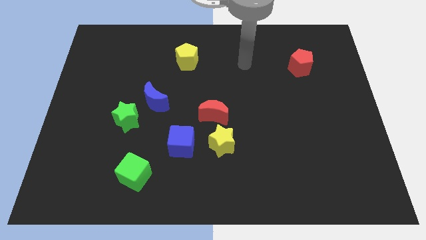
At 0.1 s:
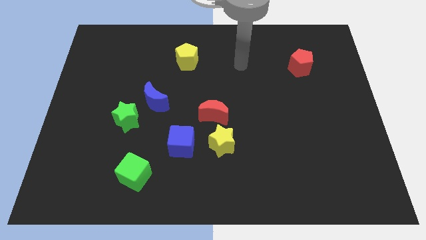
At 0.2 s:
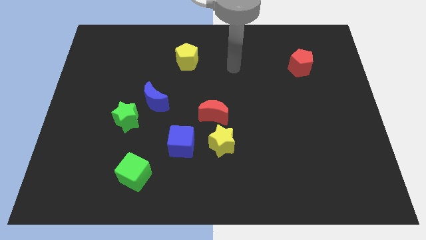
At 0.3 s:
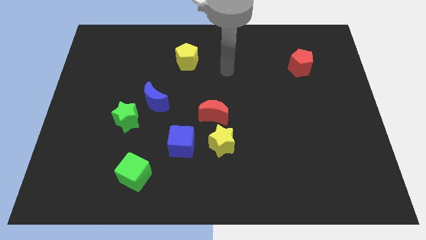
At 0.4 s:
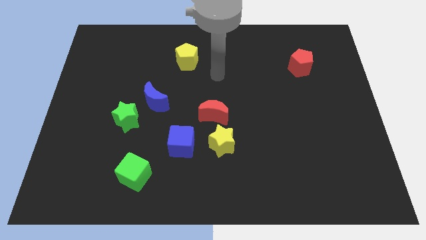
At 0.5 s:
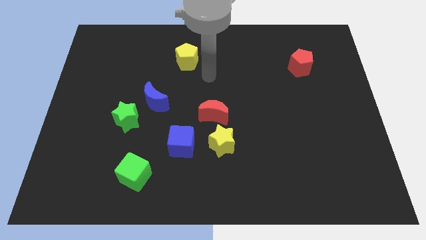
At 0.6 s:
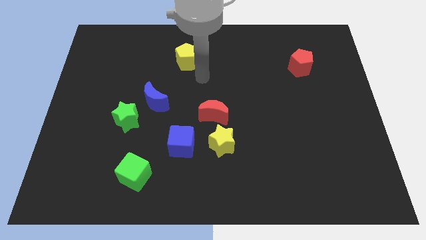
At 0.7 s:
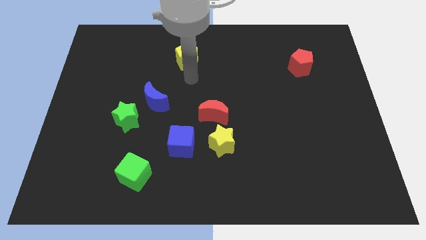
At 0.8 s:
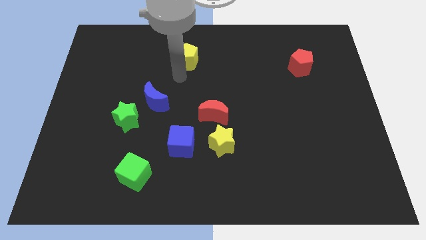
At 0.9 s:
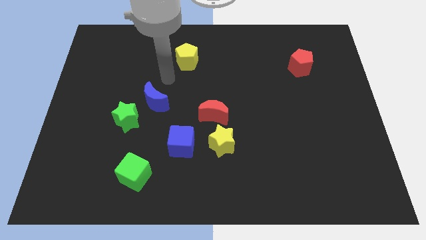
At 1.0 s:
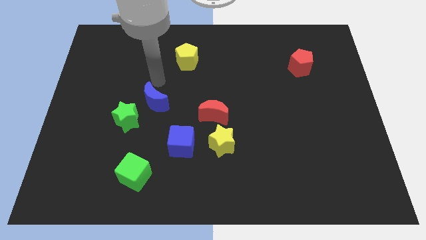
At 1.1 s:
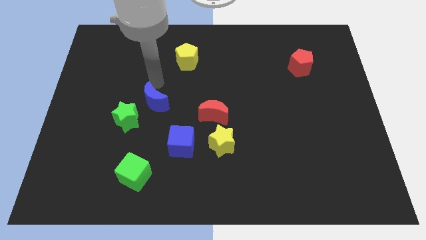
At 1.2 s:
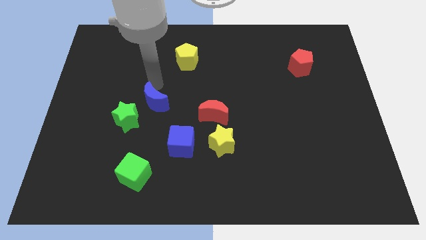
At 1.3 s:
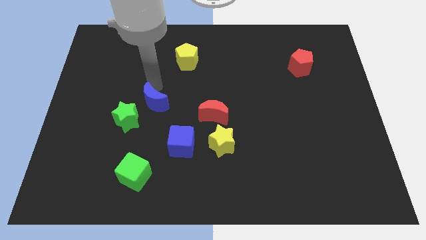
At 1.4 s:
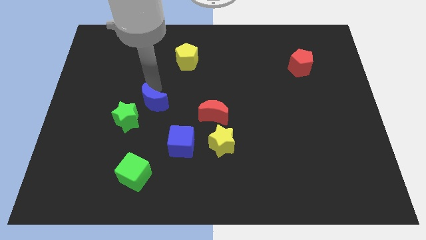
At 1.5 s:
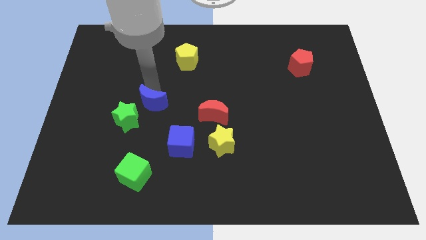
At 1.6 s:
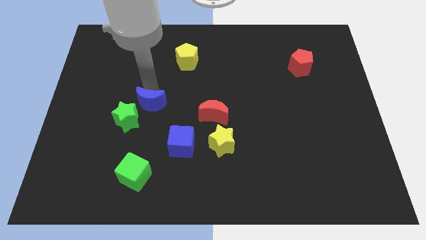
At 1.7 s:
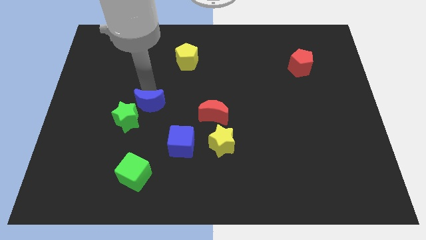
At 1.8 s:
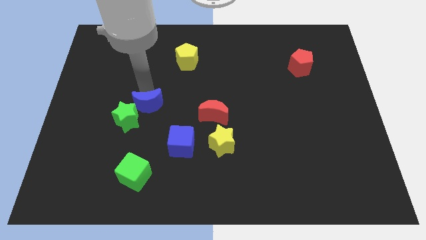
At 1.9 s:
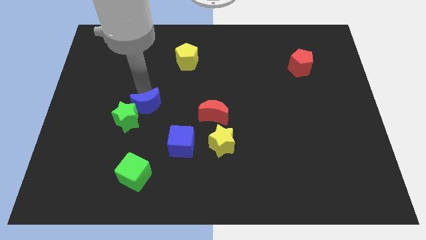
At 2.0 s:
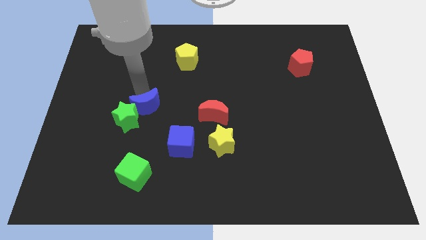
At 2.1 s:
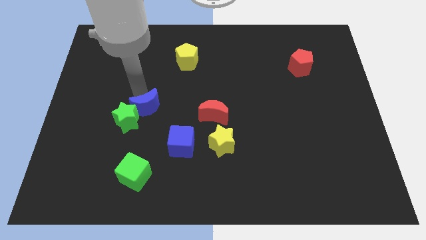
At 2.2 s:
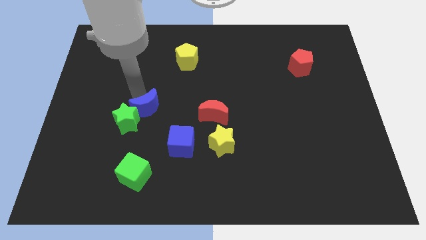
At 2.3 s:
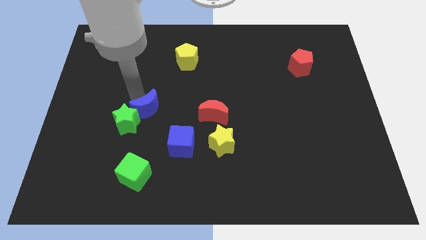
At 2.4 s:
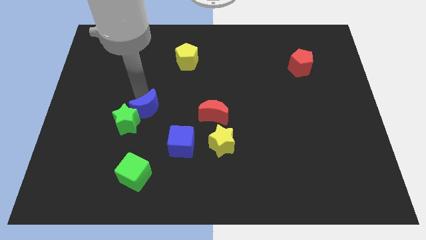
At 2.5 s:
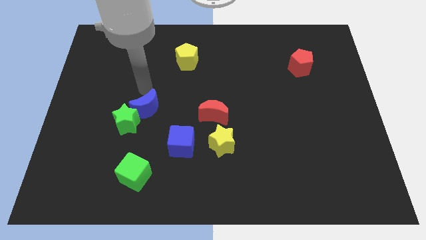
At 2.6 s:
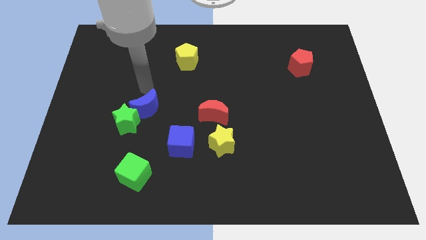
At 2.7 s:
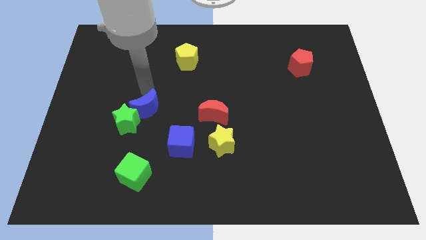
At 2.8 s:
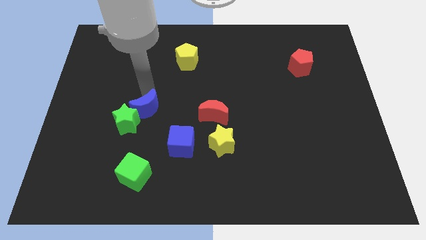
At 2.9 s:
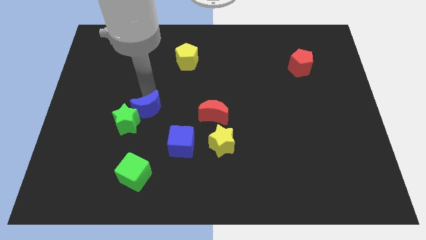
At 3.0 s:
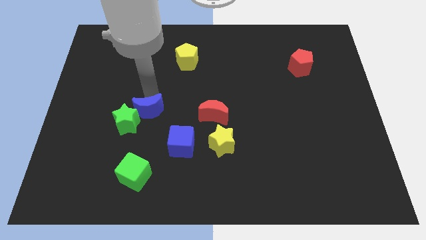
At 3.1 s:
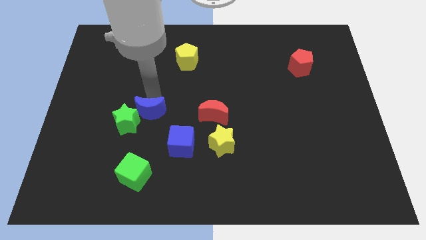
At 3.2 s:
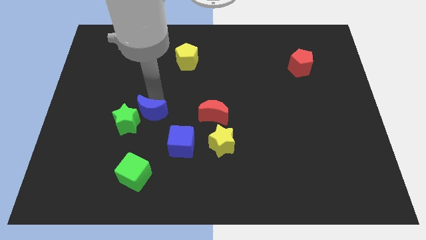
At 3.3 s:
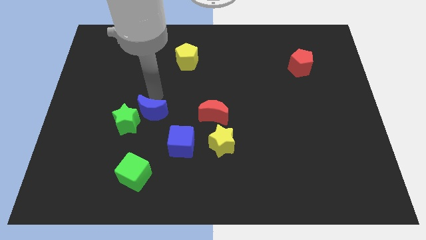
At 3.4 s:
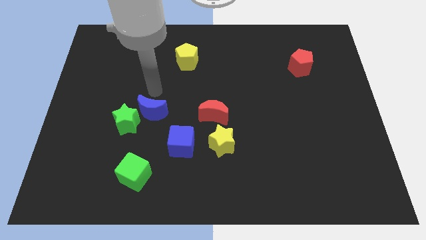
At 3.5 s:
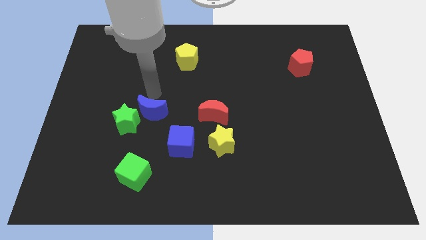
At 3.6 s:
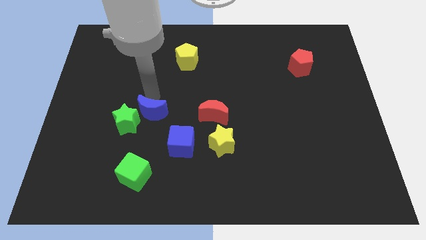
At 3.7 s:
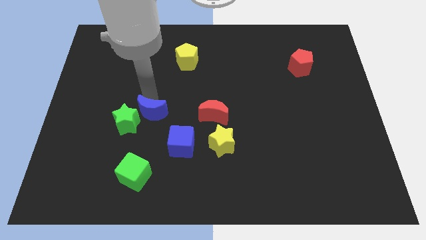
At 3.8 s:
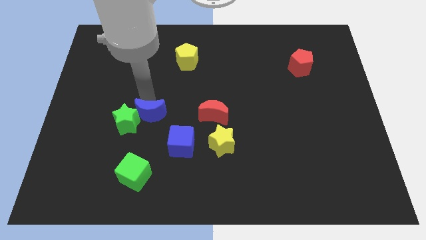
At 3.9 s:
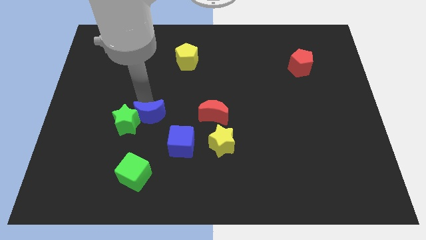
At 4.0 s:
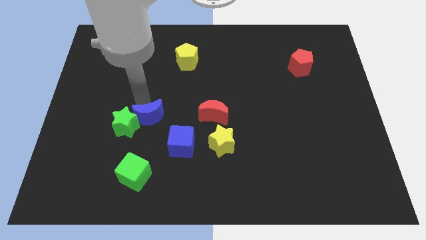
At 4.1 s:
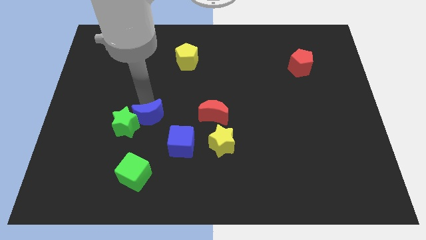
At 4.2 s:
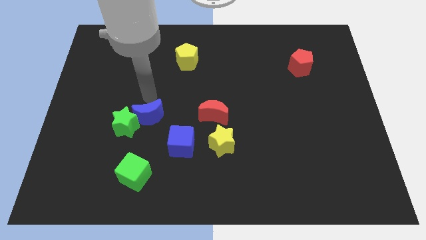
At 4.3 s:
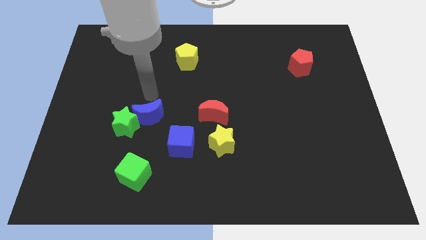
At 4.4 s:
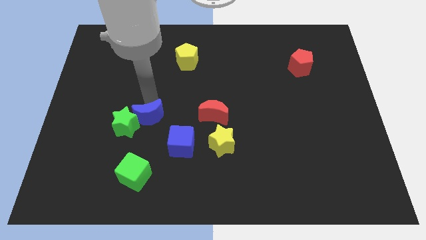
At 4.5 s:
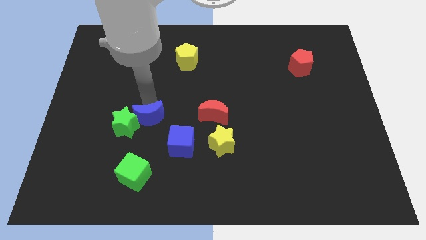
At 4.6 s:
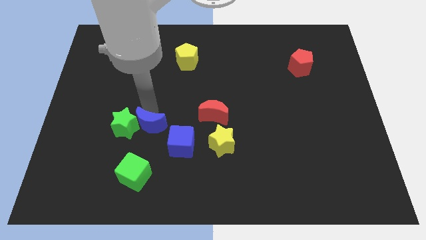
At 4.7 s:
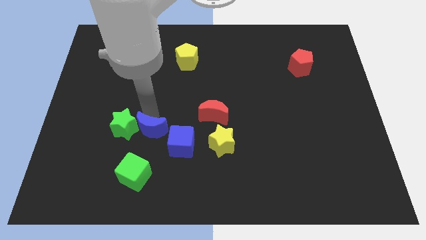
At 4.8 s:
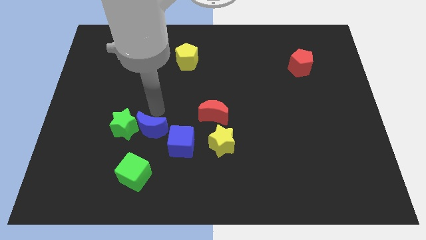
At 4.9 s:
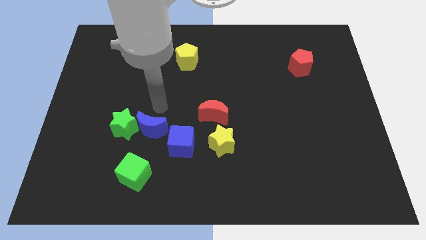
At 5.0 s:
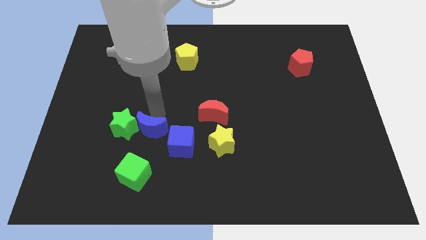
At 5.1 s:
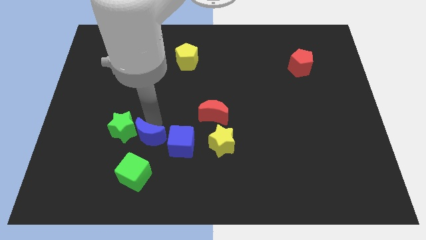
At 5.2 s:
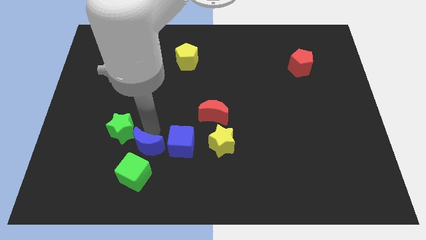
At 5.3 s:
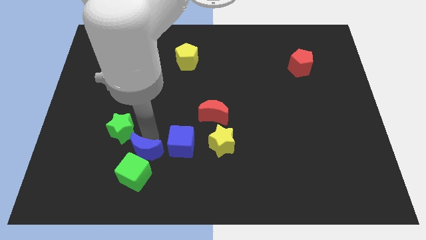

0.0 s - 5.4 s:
put the blue moon towards the green cube
